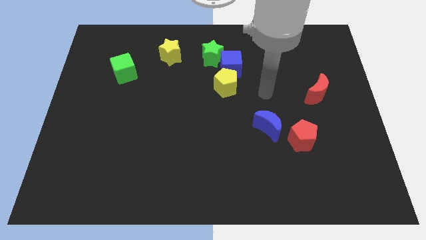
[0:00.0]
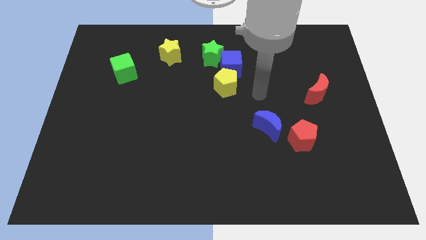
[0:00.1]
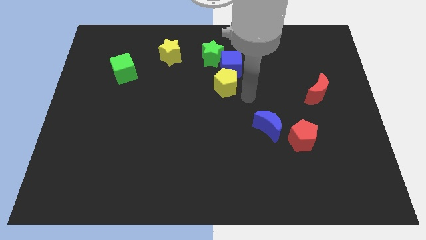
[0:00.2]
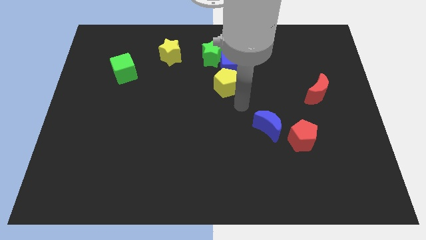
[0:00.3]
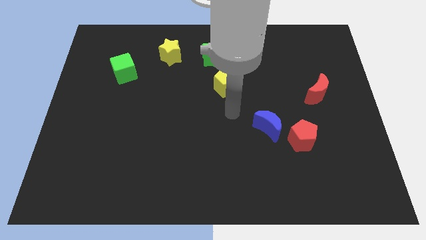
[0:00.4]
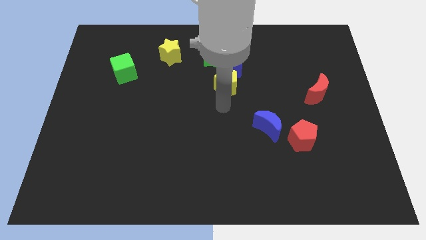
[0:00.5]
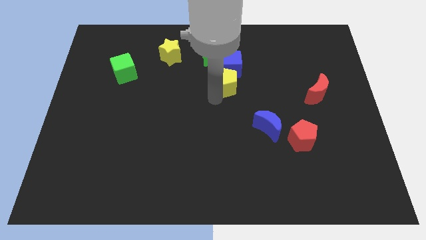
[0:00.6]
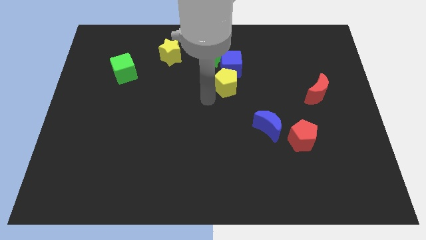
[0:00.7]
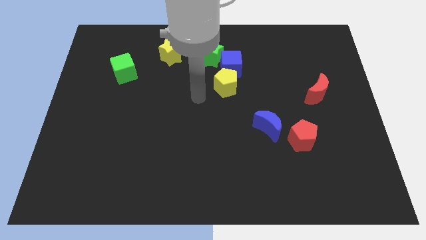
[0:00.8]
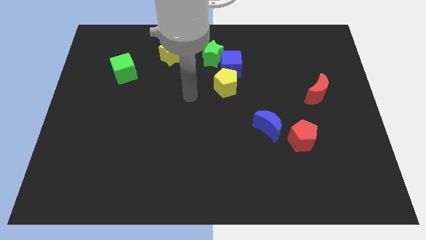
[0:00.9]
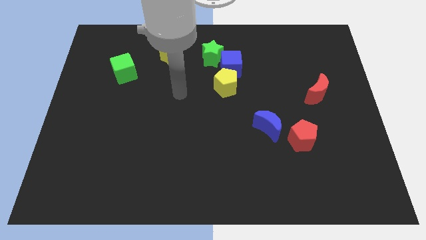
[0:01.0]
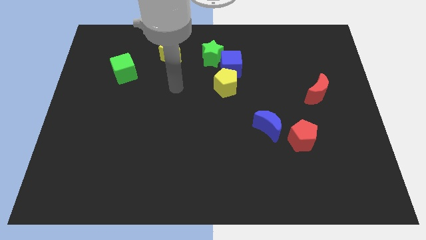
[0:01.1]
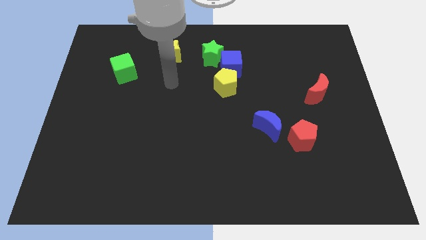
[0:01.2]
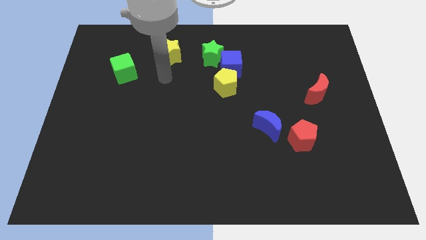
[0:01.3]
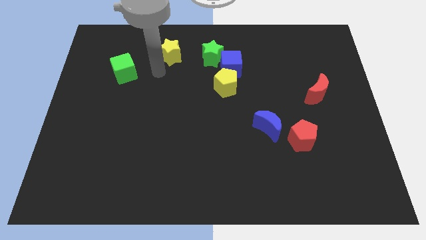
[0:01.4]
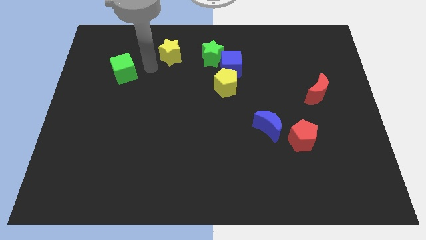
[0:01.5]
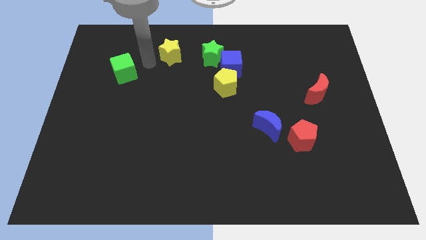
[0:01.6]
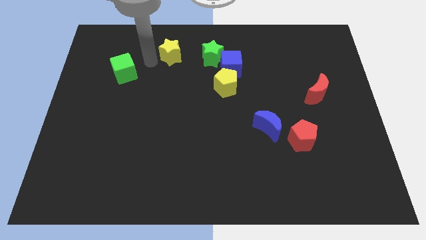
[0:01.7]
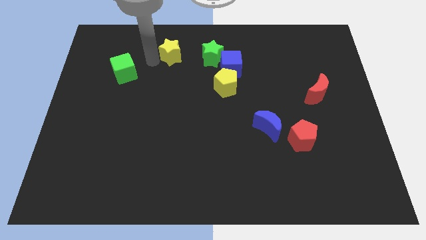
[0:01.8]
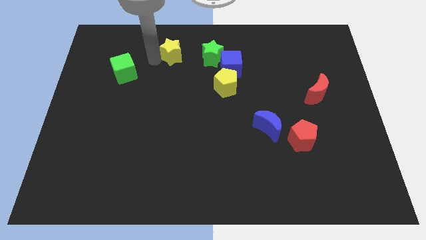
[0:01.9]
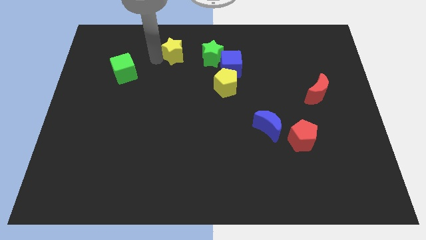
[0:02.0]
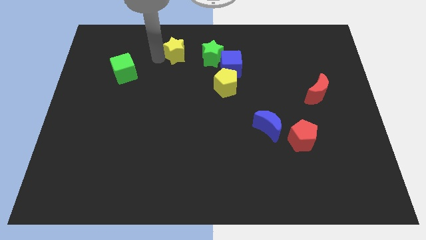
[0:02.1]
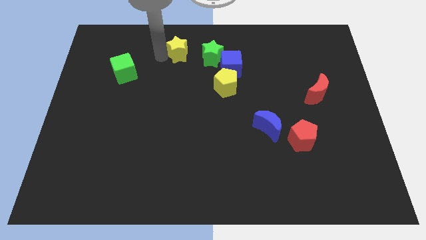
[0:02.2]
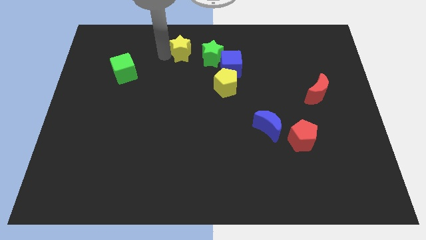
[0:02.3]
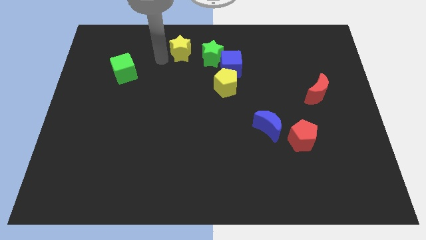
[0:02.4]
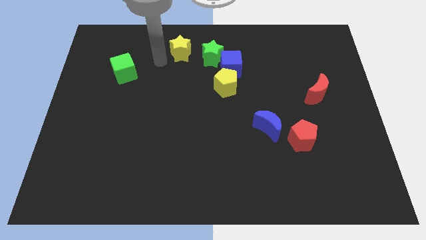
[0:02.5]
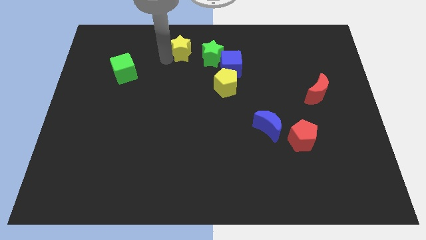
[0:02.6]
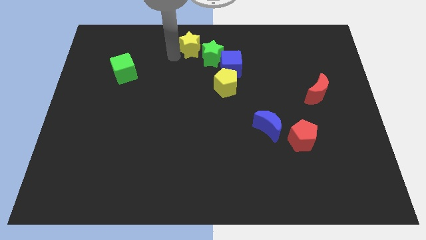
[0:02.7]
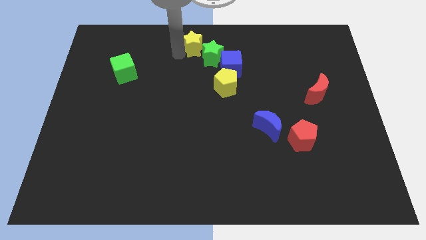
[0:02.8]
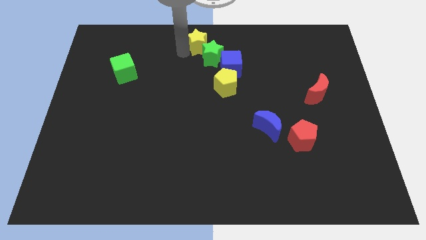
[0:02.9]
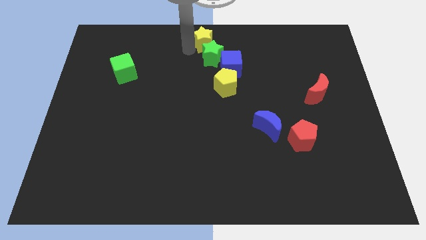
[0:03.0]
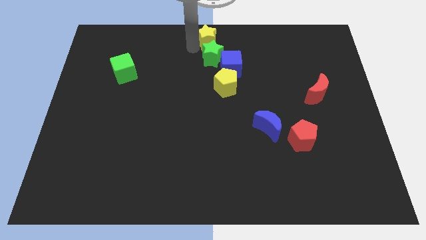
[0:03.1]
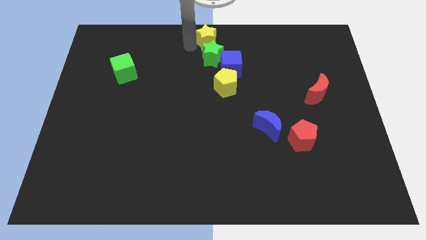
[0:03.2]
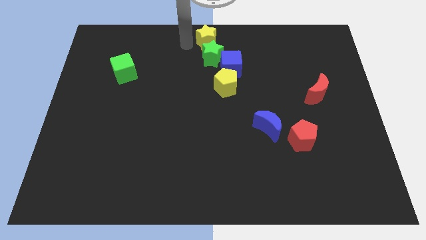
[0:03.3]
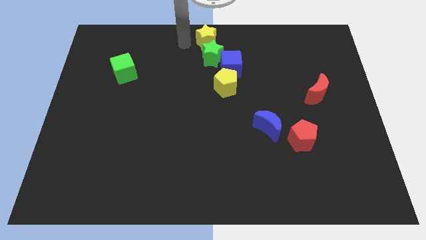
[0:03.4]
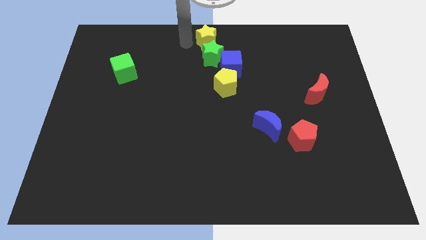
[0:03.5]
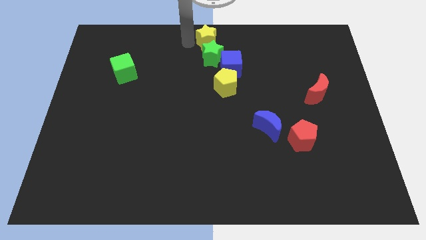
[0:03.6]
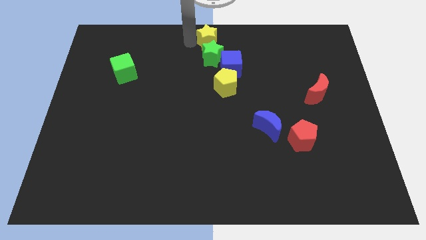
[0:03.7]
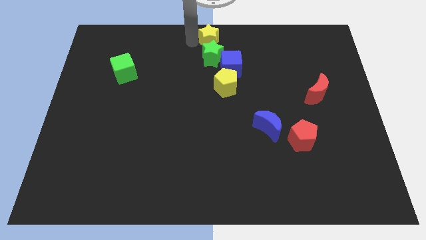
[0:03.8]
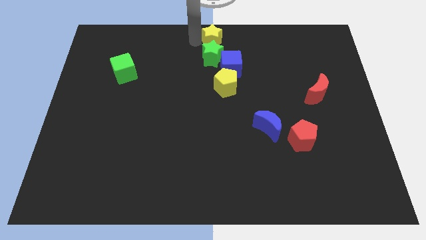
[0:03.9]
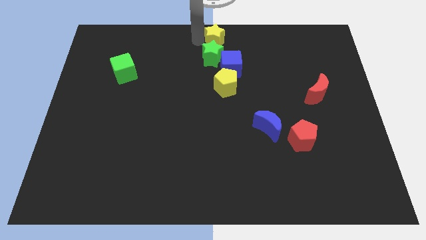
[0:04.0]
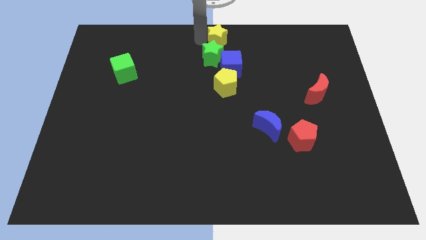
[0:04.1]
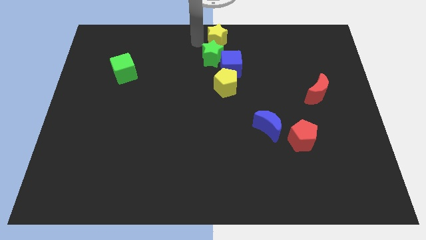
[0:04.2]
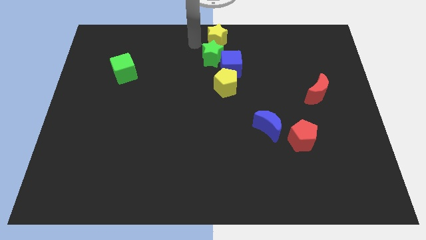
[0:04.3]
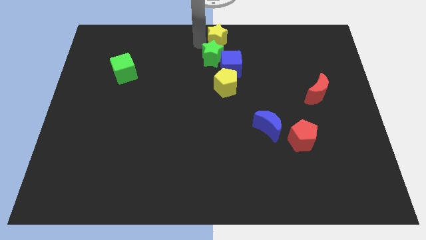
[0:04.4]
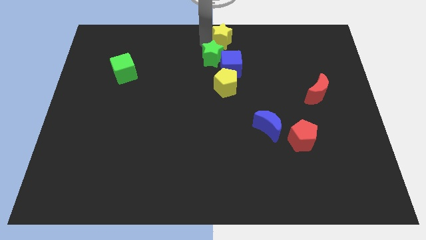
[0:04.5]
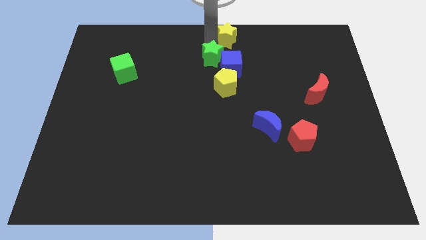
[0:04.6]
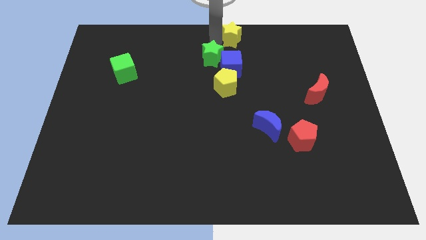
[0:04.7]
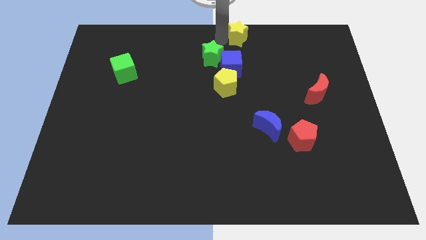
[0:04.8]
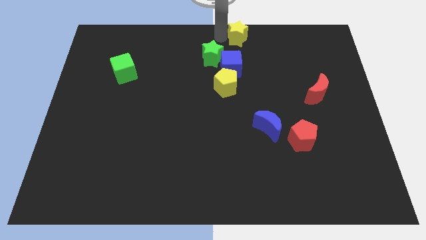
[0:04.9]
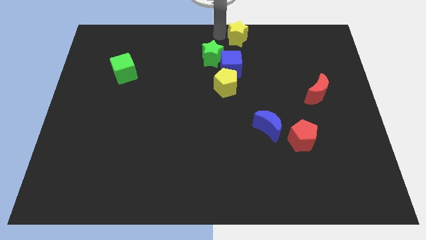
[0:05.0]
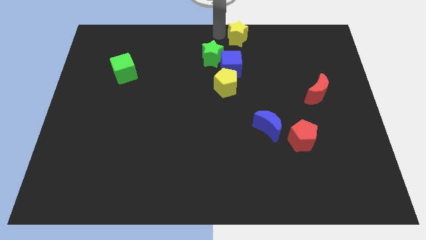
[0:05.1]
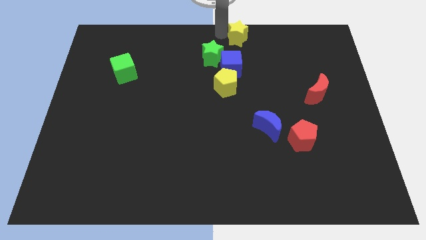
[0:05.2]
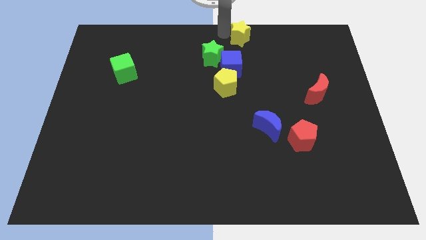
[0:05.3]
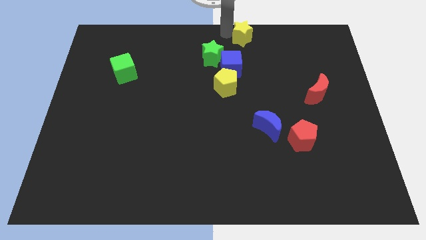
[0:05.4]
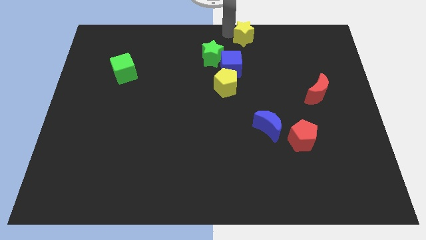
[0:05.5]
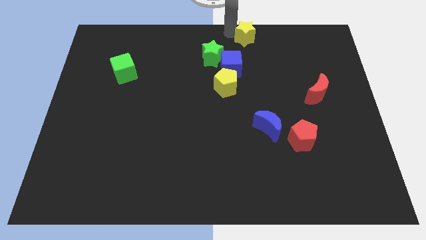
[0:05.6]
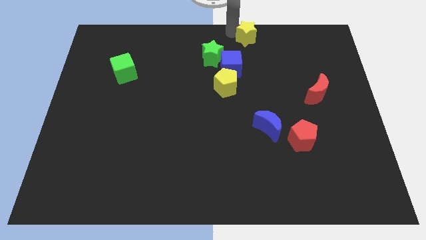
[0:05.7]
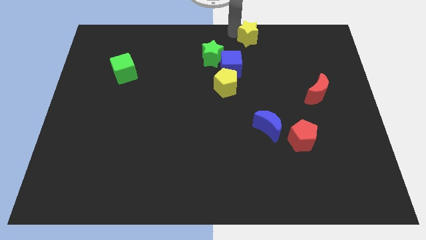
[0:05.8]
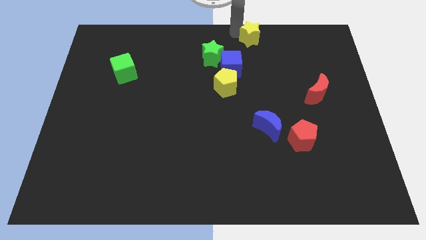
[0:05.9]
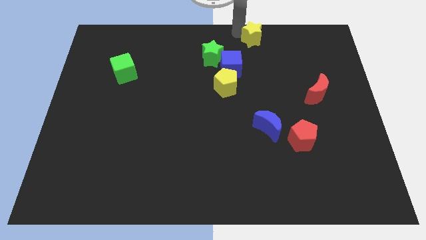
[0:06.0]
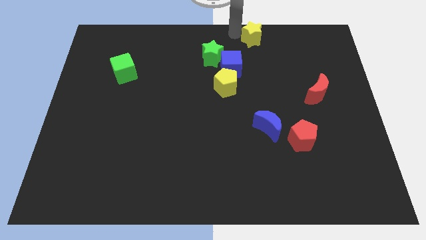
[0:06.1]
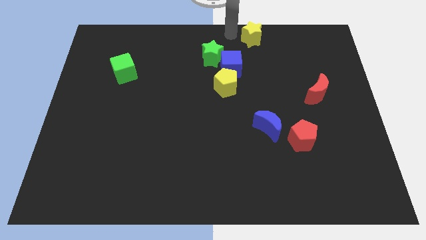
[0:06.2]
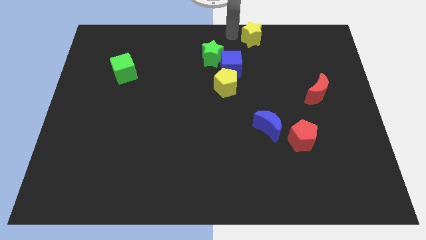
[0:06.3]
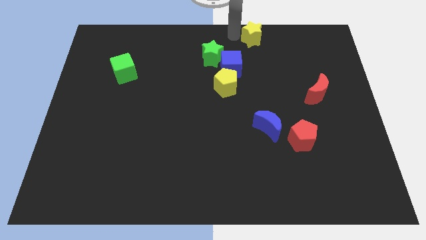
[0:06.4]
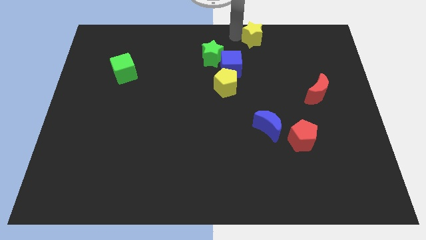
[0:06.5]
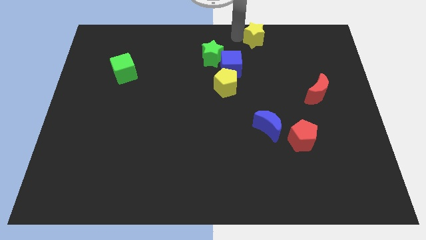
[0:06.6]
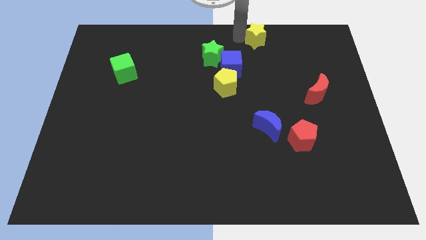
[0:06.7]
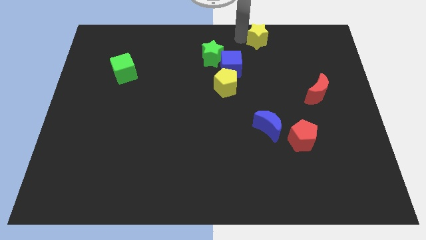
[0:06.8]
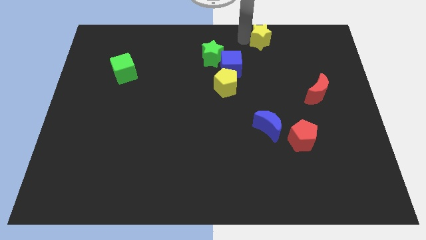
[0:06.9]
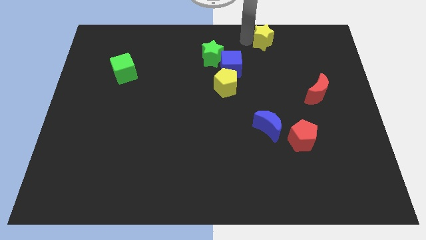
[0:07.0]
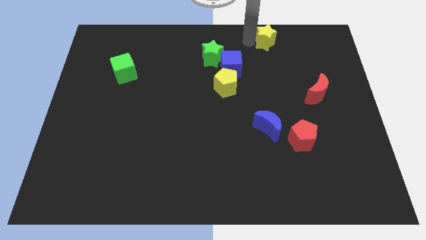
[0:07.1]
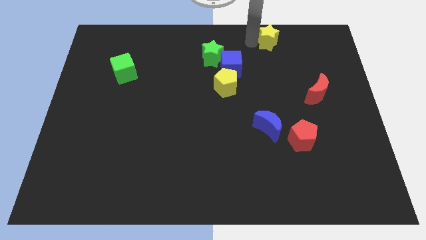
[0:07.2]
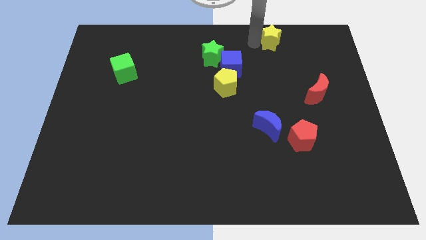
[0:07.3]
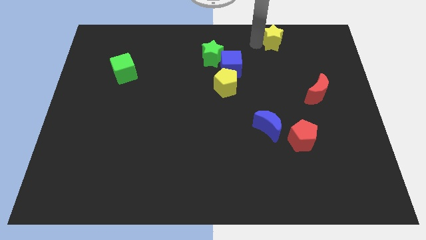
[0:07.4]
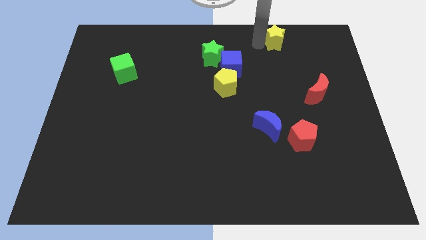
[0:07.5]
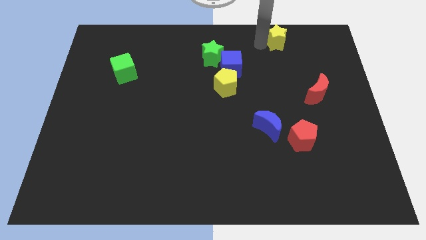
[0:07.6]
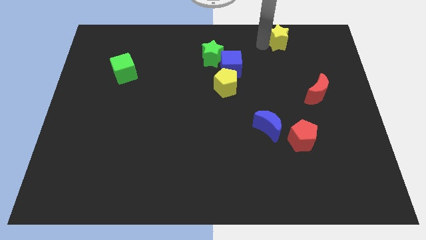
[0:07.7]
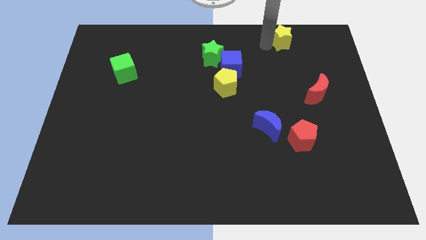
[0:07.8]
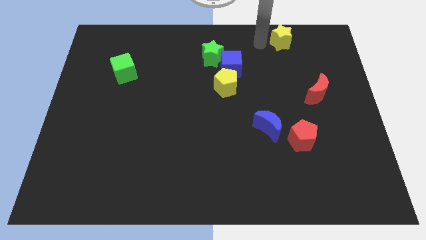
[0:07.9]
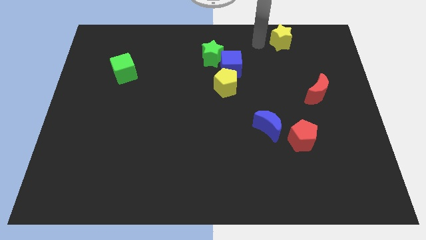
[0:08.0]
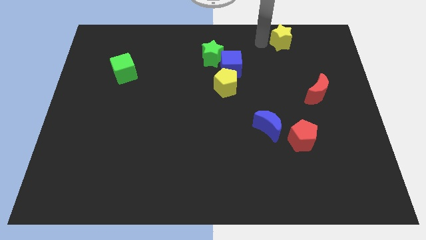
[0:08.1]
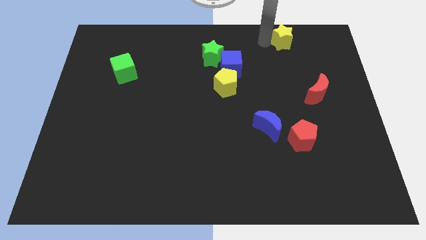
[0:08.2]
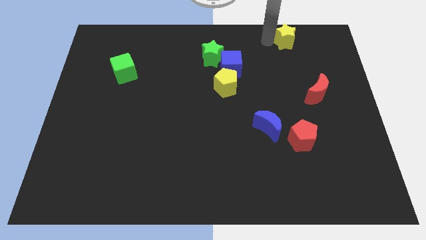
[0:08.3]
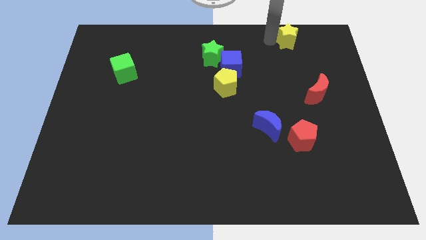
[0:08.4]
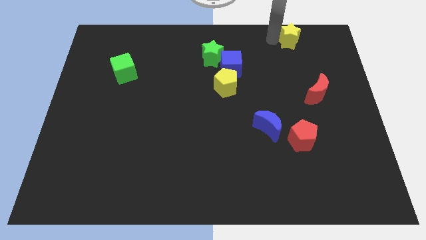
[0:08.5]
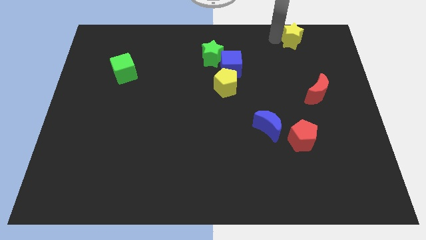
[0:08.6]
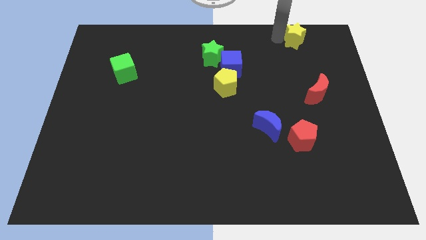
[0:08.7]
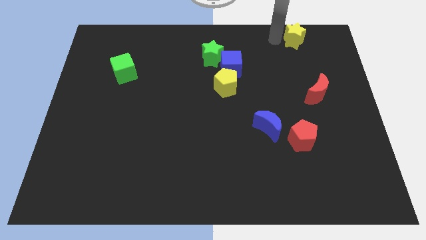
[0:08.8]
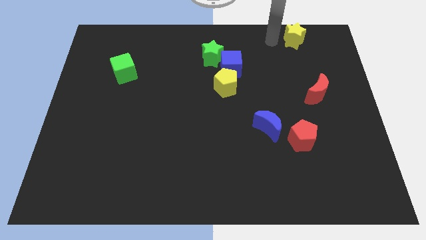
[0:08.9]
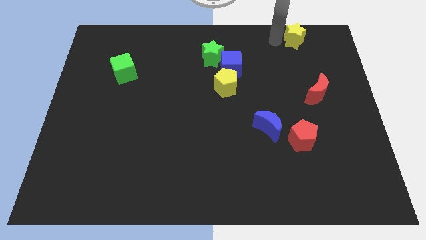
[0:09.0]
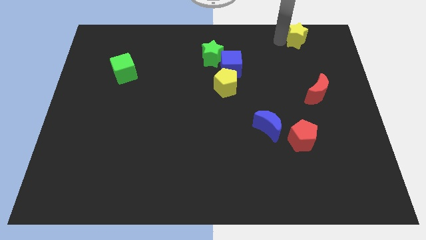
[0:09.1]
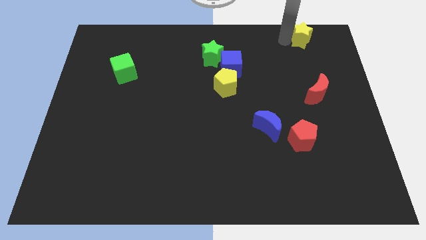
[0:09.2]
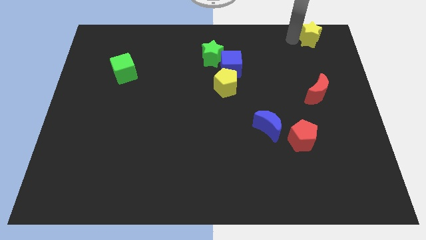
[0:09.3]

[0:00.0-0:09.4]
put the yellow star to the upper right corner
